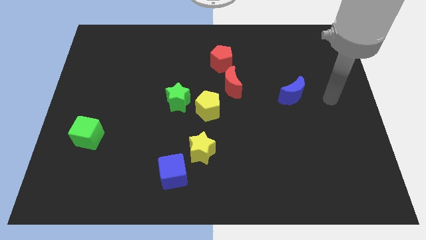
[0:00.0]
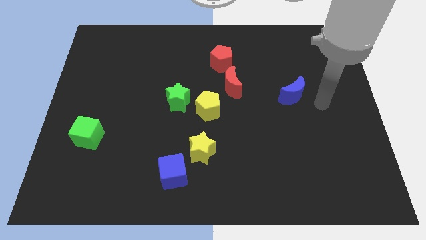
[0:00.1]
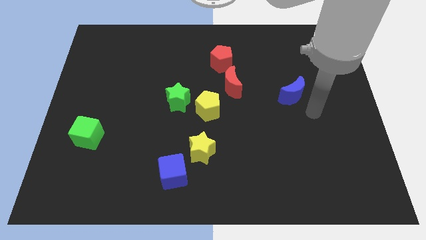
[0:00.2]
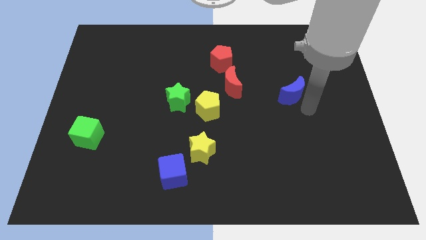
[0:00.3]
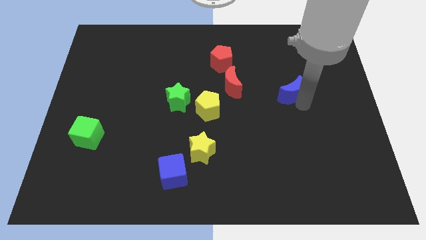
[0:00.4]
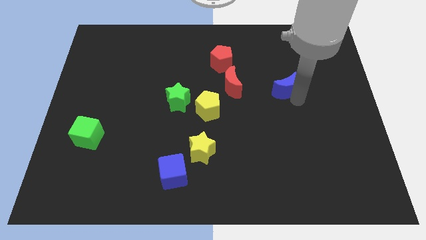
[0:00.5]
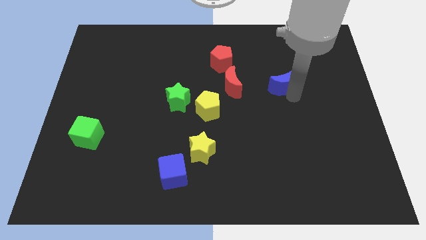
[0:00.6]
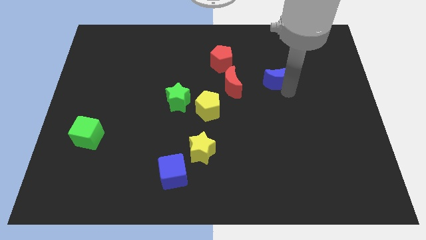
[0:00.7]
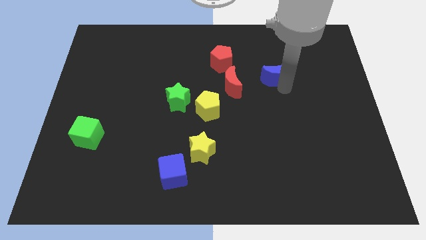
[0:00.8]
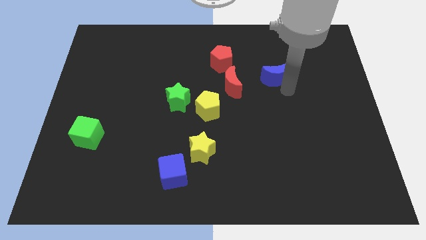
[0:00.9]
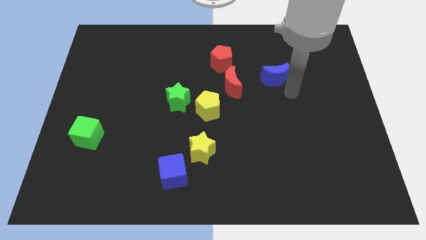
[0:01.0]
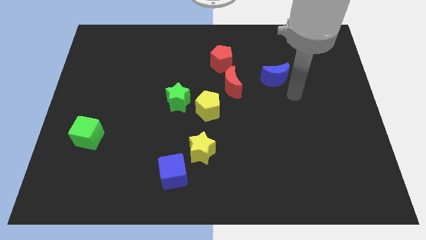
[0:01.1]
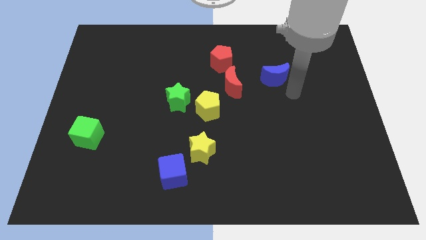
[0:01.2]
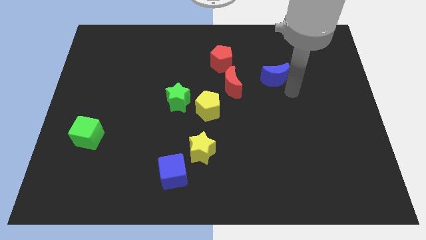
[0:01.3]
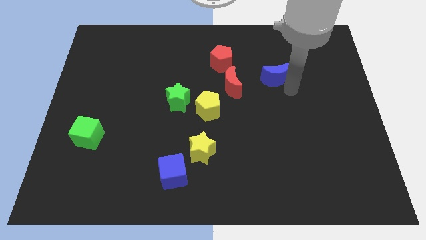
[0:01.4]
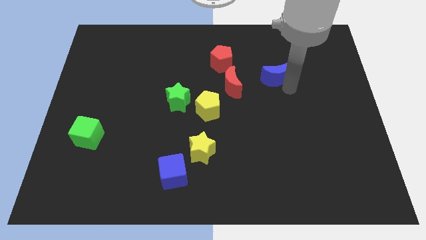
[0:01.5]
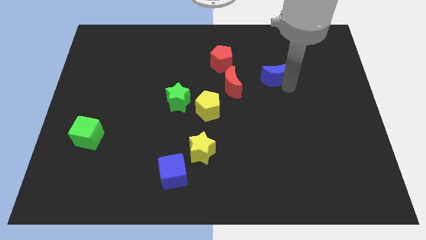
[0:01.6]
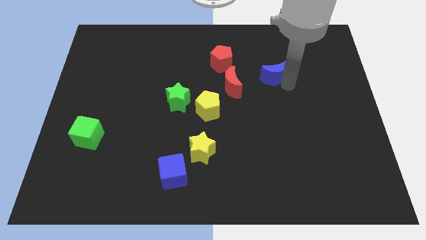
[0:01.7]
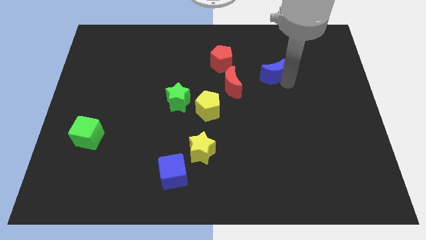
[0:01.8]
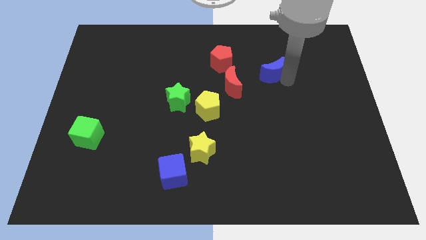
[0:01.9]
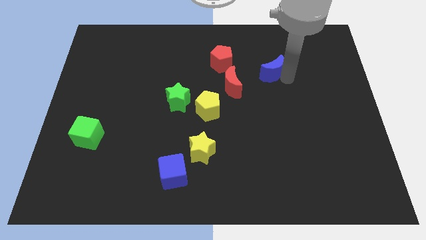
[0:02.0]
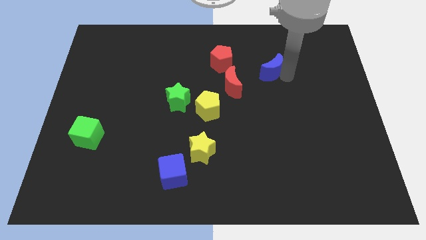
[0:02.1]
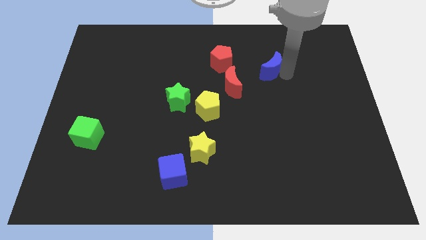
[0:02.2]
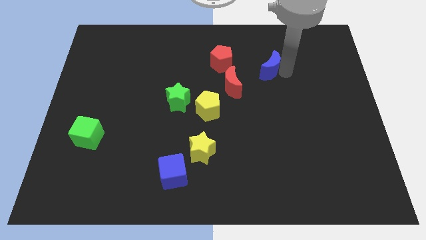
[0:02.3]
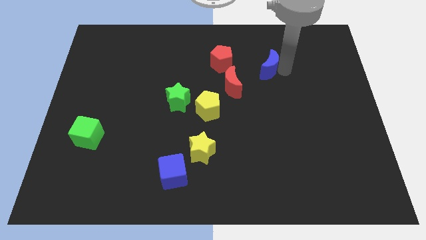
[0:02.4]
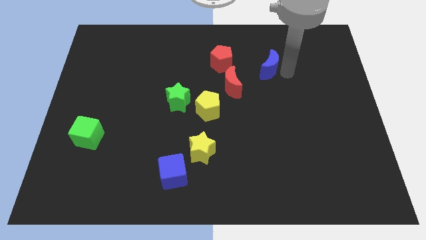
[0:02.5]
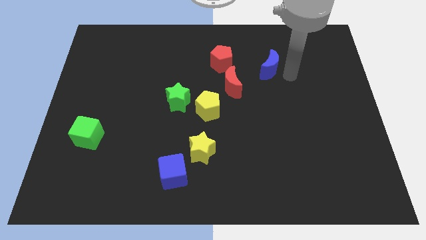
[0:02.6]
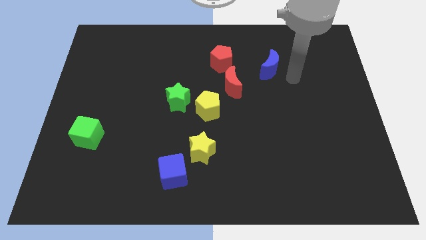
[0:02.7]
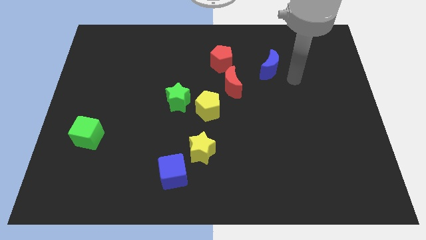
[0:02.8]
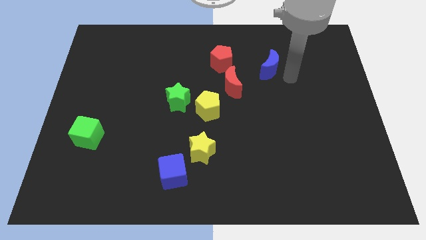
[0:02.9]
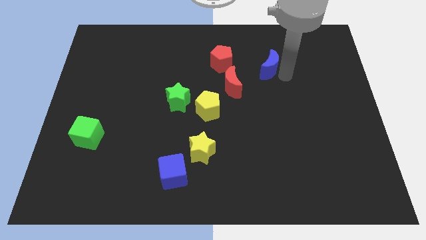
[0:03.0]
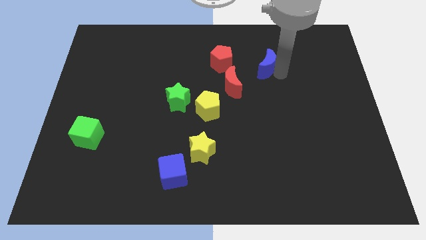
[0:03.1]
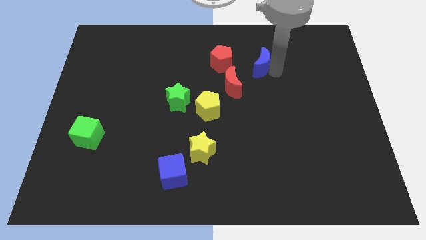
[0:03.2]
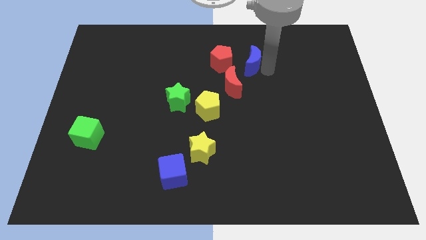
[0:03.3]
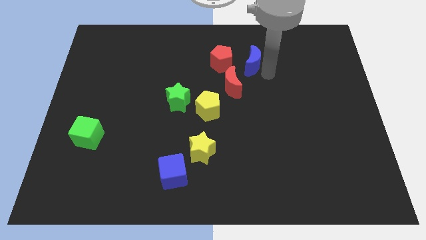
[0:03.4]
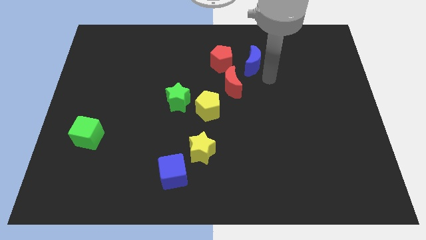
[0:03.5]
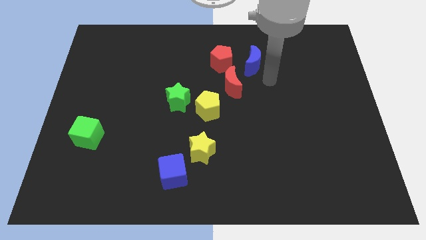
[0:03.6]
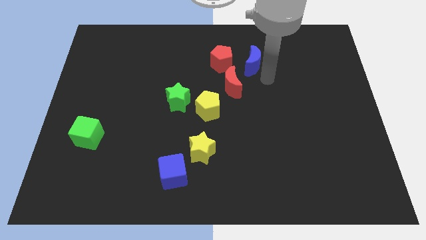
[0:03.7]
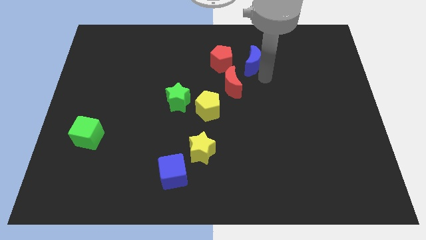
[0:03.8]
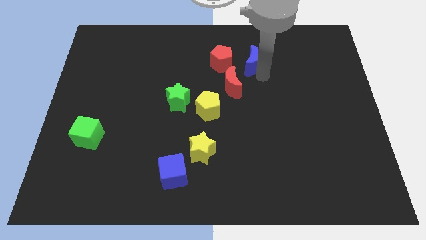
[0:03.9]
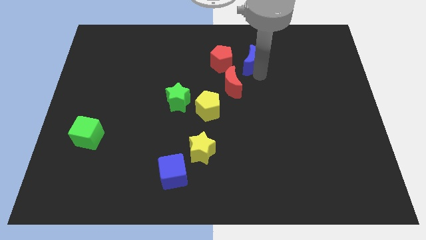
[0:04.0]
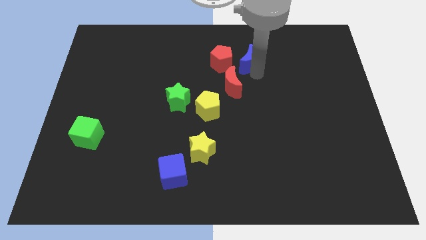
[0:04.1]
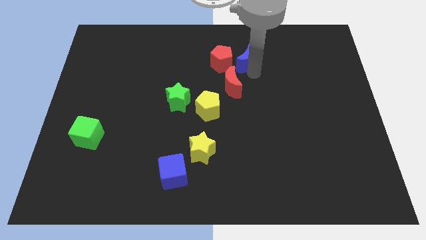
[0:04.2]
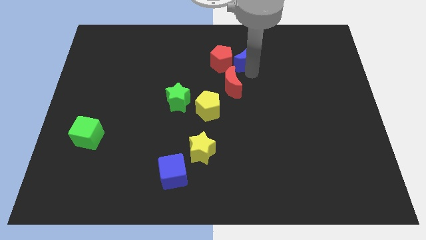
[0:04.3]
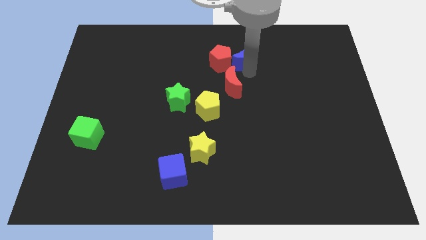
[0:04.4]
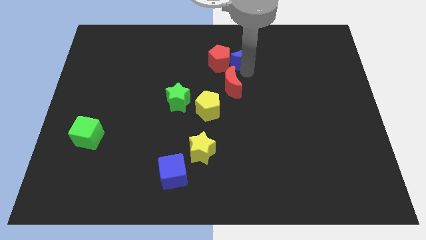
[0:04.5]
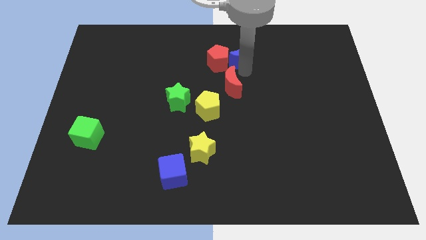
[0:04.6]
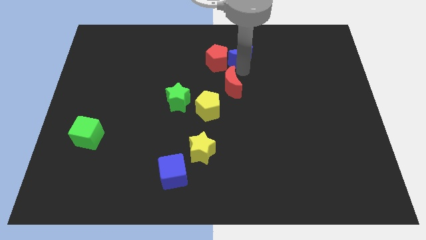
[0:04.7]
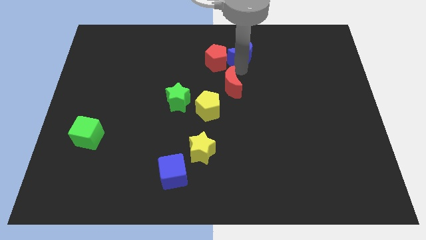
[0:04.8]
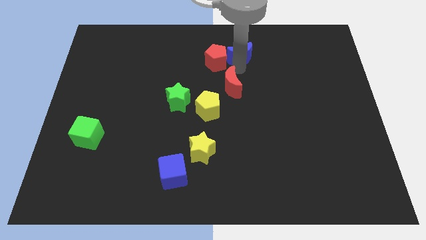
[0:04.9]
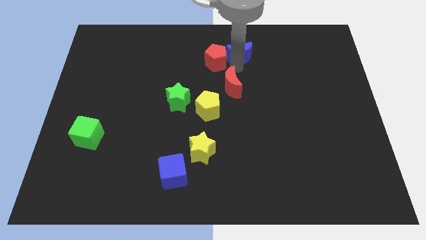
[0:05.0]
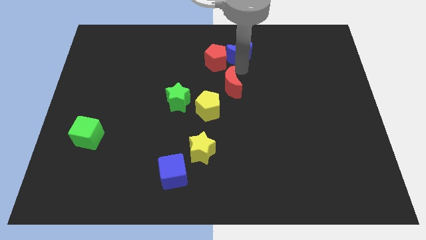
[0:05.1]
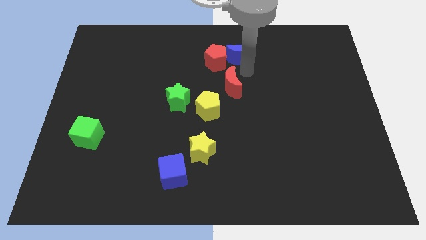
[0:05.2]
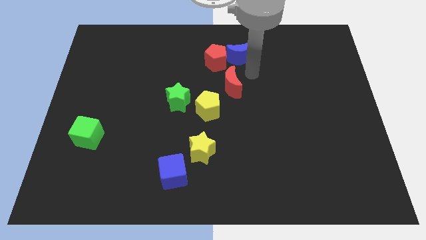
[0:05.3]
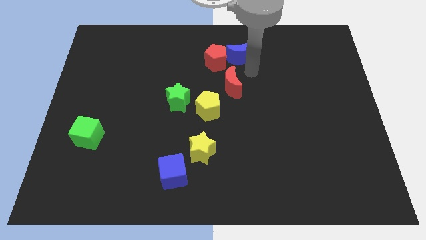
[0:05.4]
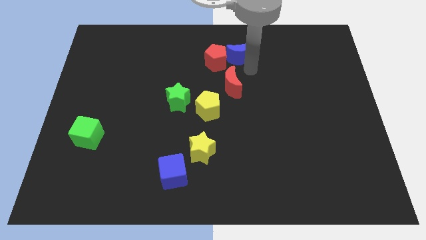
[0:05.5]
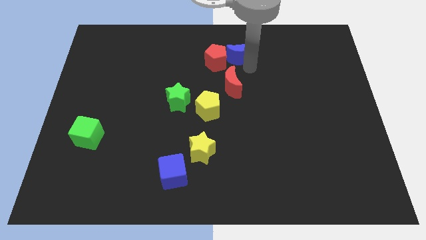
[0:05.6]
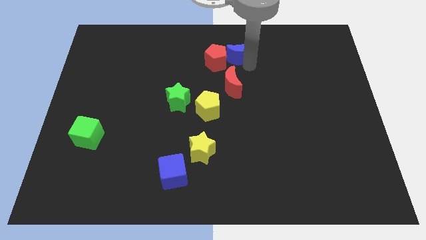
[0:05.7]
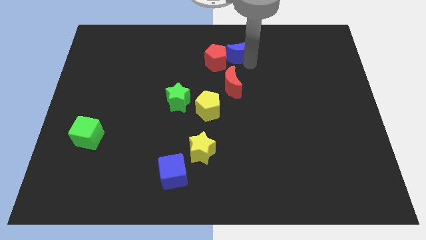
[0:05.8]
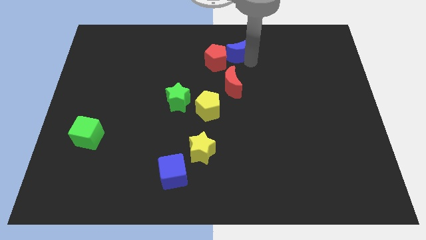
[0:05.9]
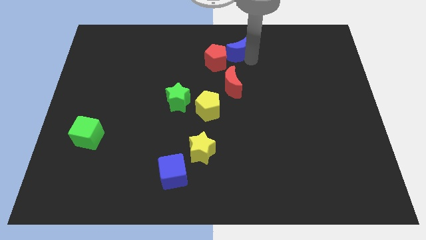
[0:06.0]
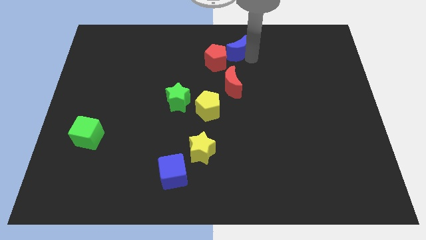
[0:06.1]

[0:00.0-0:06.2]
slide the blue moon to the top side

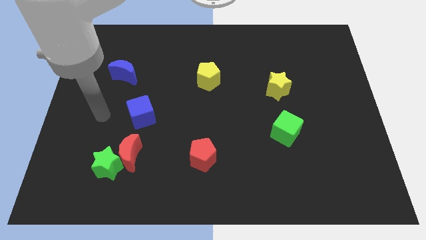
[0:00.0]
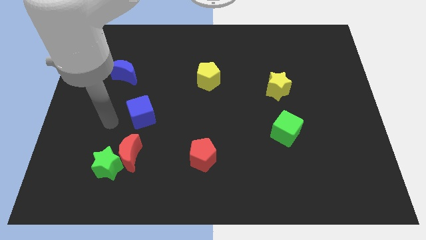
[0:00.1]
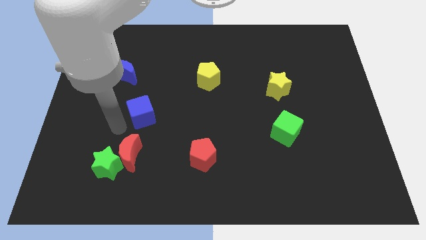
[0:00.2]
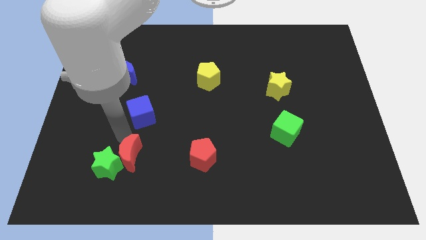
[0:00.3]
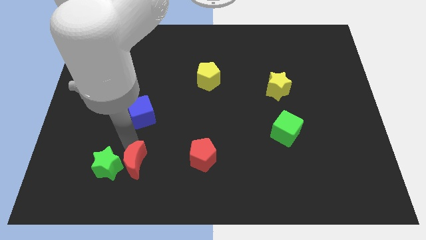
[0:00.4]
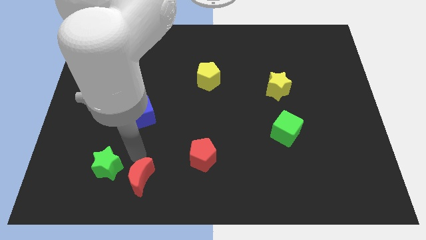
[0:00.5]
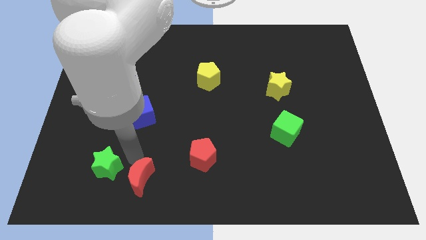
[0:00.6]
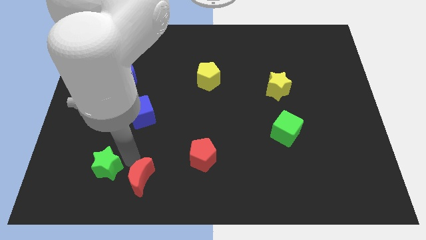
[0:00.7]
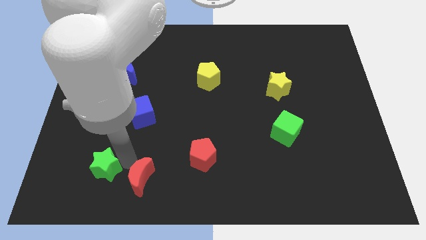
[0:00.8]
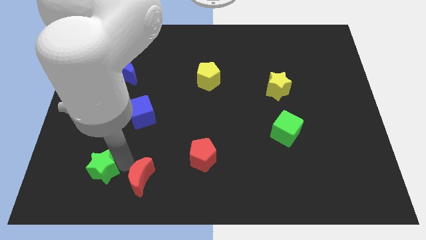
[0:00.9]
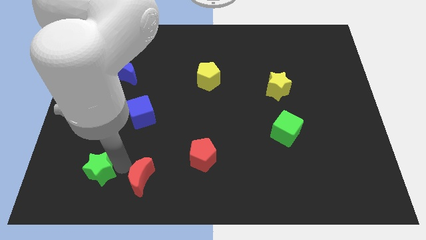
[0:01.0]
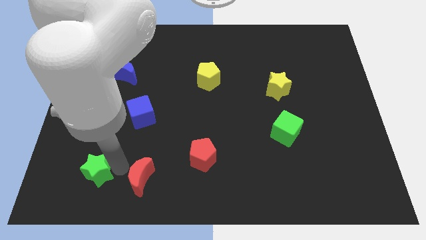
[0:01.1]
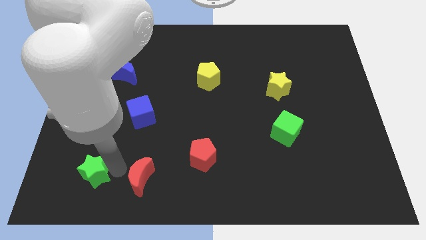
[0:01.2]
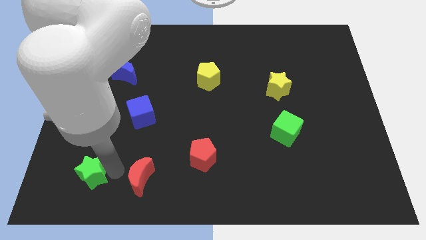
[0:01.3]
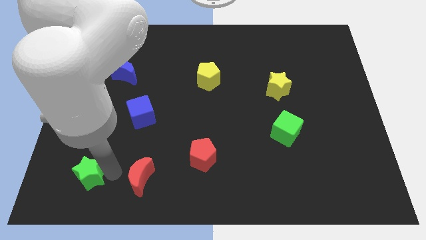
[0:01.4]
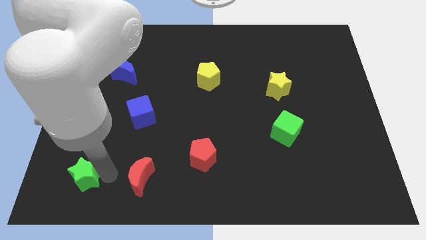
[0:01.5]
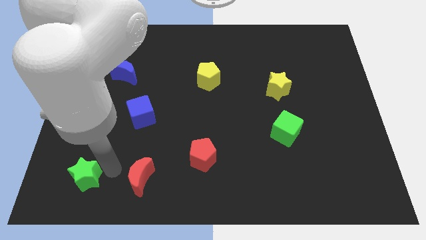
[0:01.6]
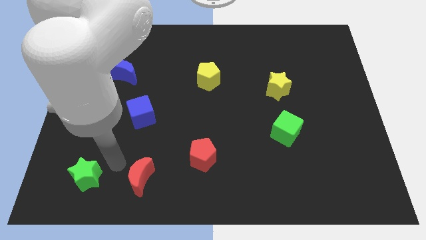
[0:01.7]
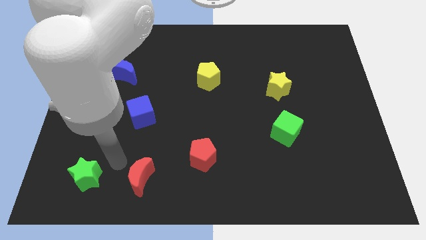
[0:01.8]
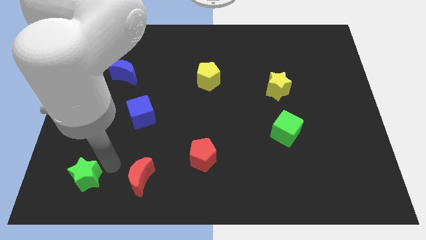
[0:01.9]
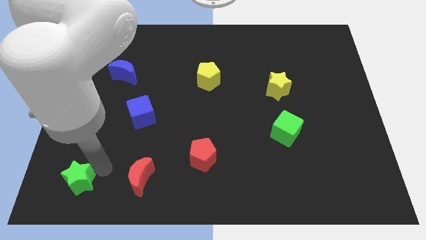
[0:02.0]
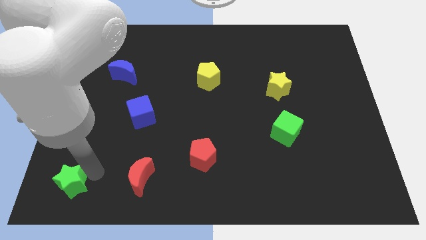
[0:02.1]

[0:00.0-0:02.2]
put the green star to the bottom left
